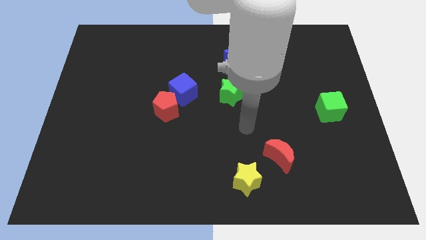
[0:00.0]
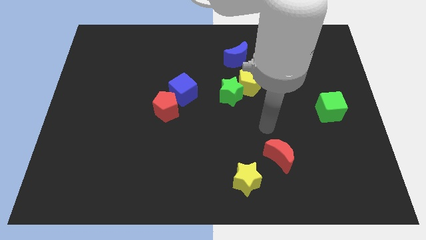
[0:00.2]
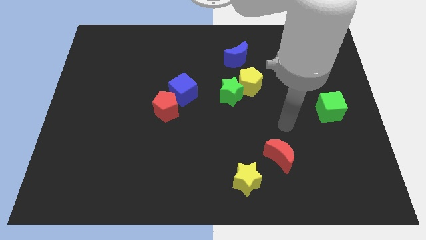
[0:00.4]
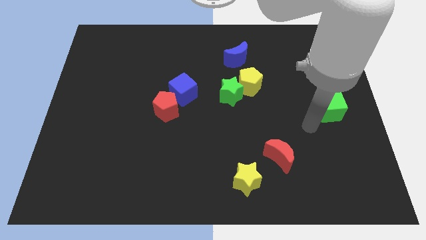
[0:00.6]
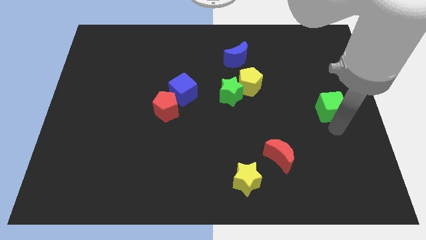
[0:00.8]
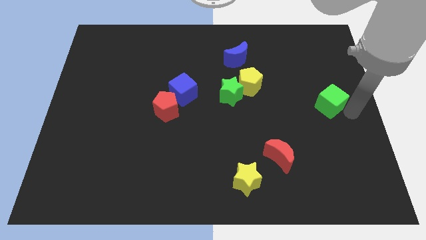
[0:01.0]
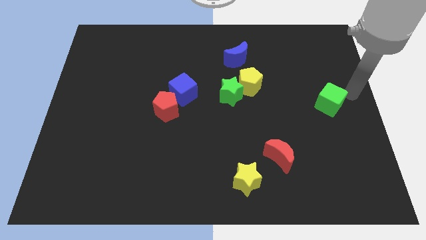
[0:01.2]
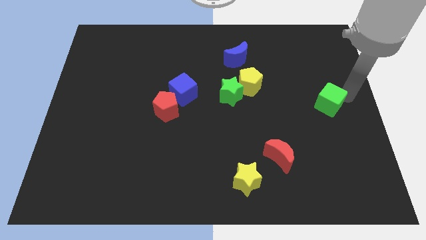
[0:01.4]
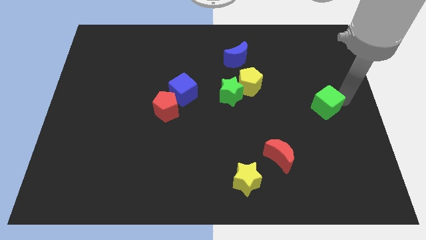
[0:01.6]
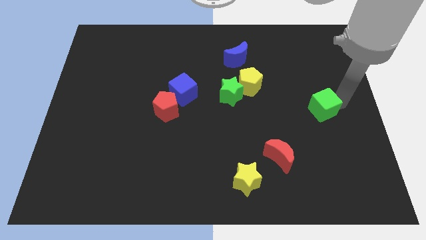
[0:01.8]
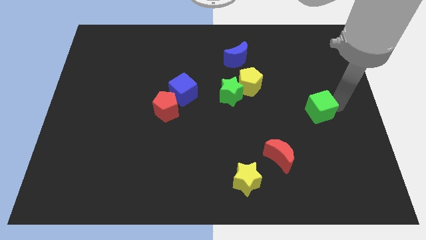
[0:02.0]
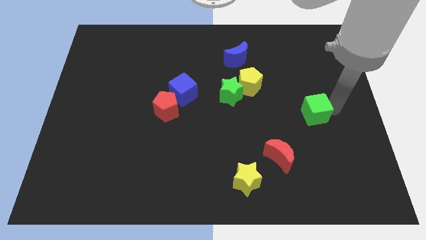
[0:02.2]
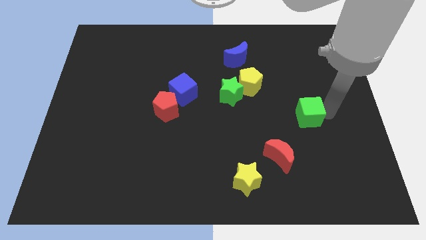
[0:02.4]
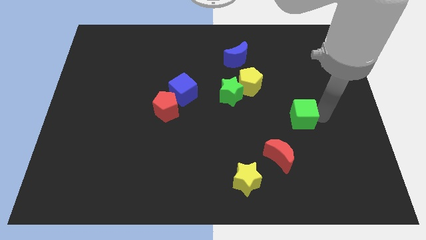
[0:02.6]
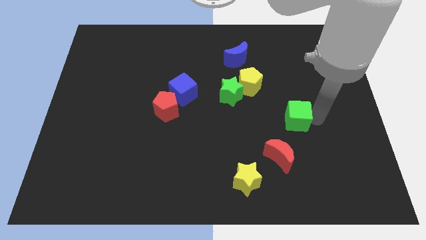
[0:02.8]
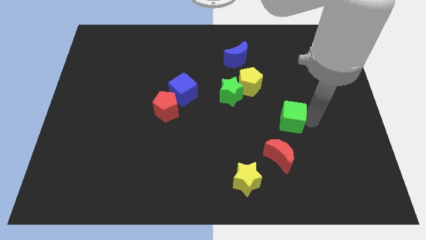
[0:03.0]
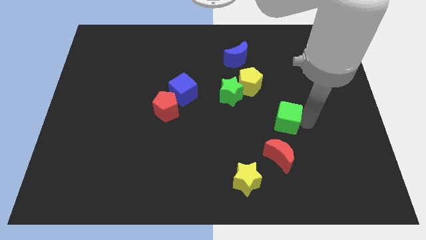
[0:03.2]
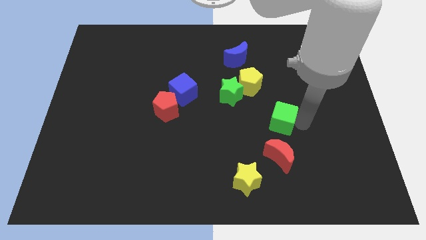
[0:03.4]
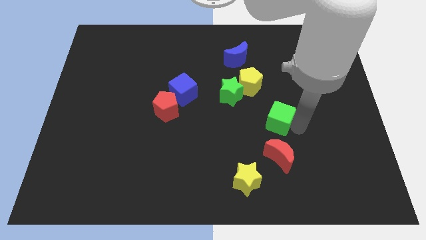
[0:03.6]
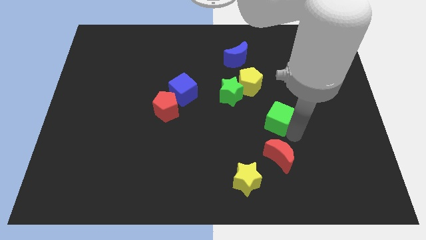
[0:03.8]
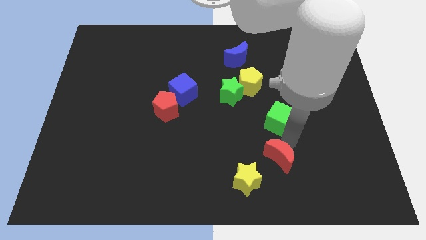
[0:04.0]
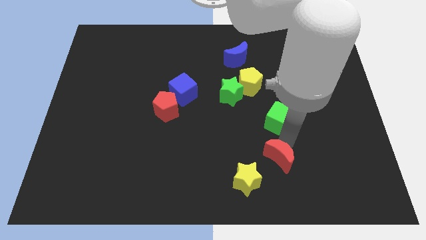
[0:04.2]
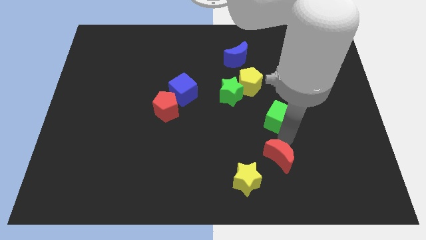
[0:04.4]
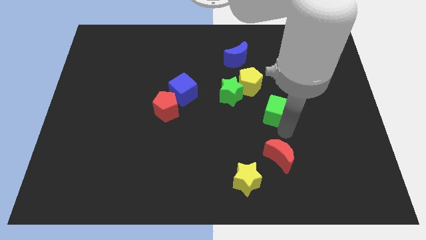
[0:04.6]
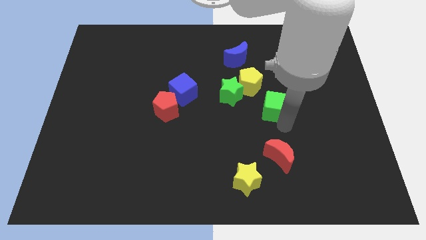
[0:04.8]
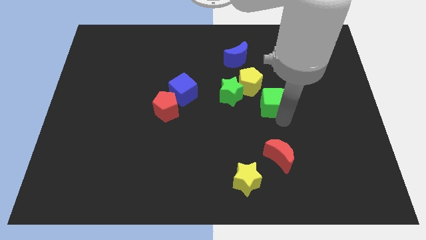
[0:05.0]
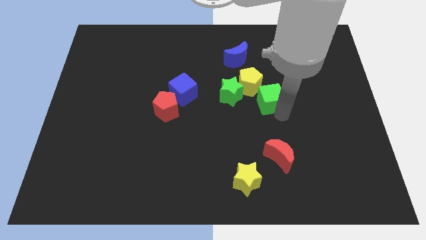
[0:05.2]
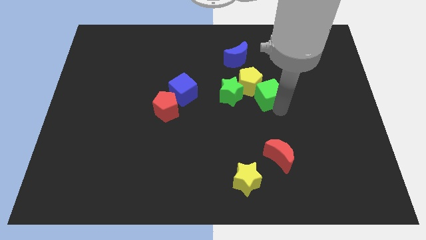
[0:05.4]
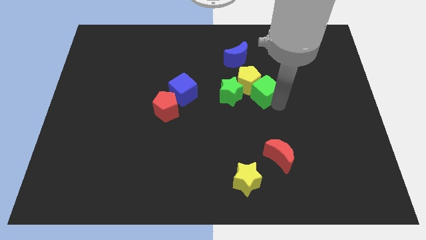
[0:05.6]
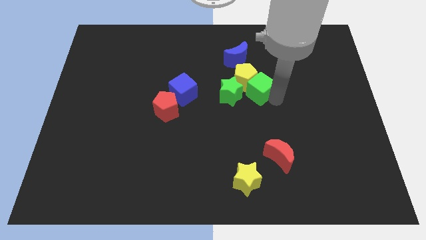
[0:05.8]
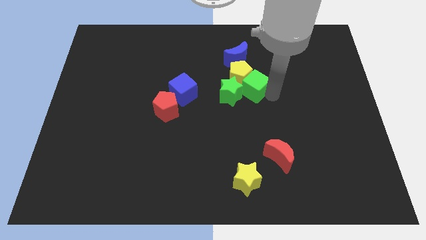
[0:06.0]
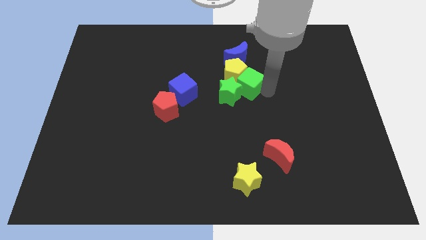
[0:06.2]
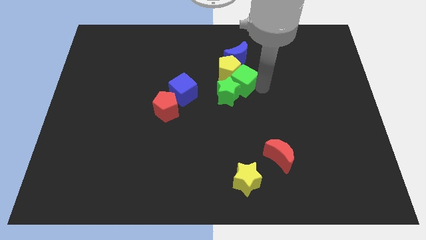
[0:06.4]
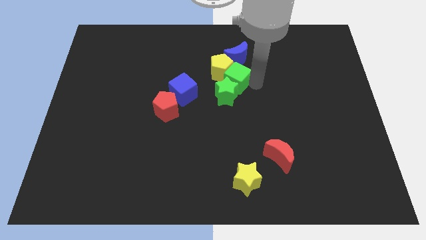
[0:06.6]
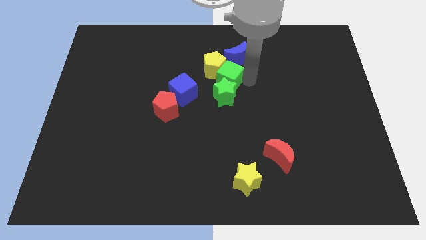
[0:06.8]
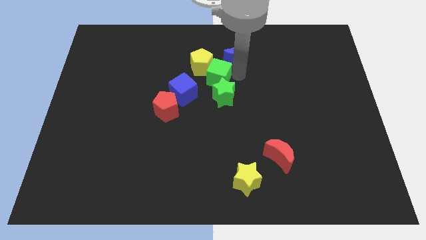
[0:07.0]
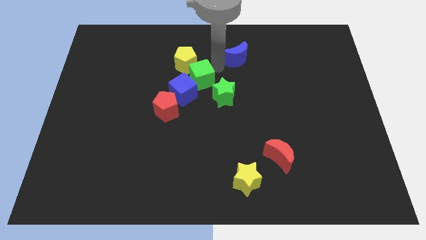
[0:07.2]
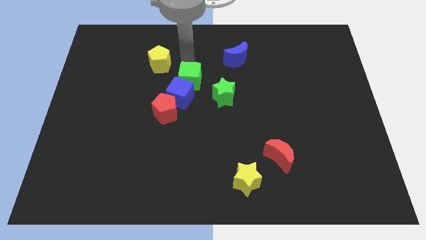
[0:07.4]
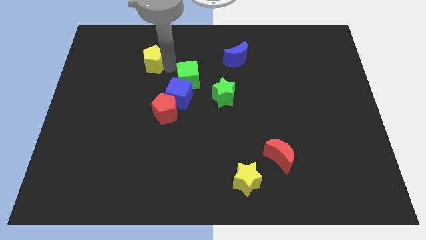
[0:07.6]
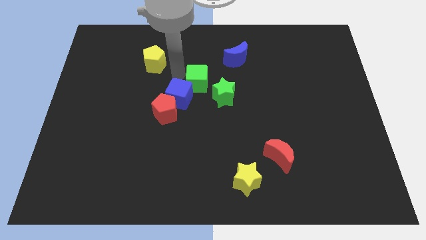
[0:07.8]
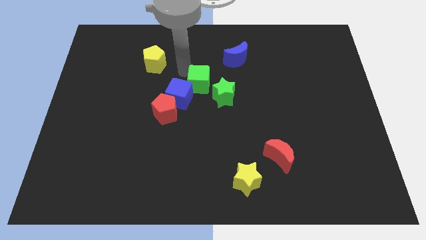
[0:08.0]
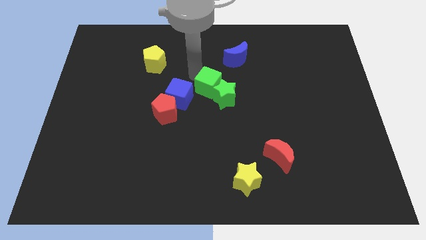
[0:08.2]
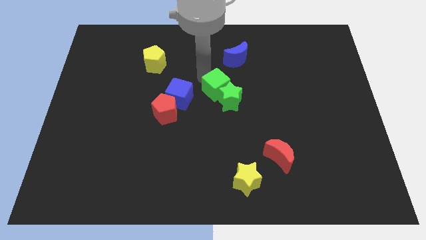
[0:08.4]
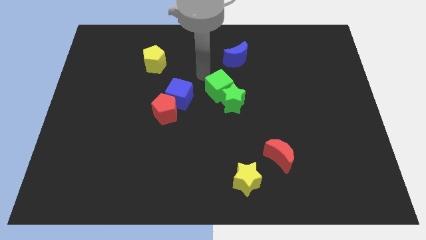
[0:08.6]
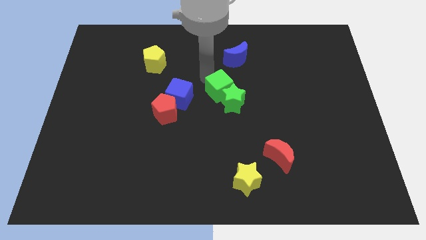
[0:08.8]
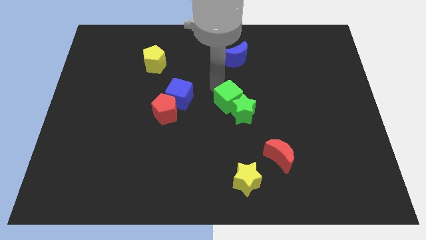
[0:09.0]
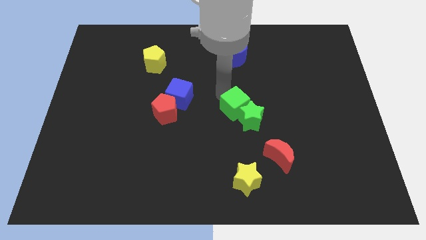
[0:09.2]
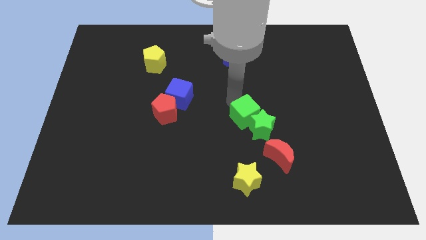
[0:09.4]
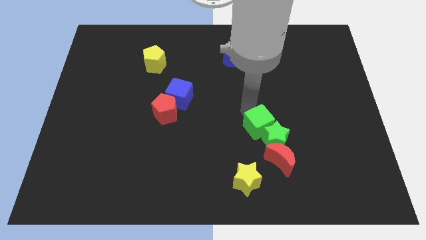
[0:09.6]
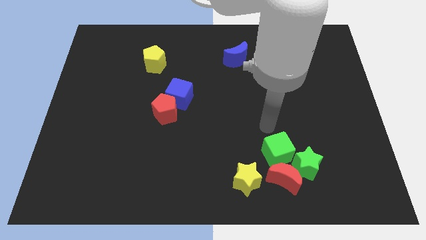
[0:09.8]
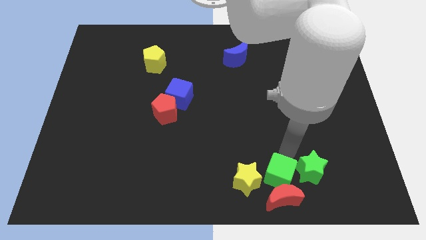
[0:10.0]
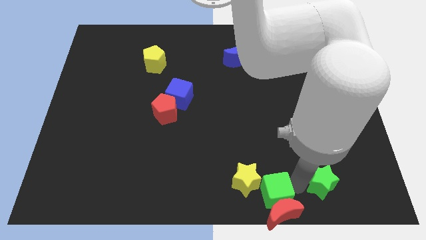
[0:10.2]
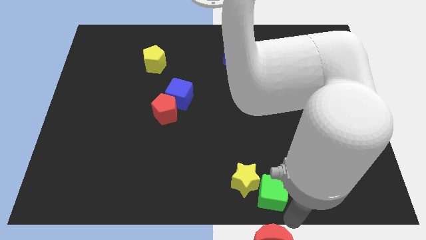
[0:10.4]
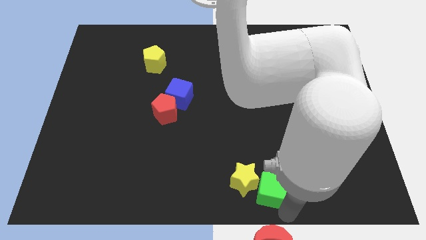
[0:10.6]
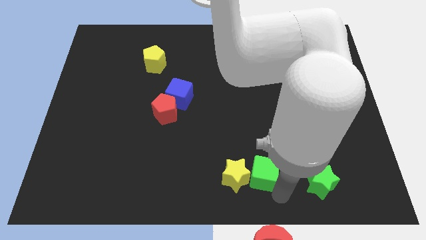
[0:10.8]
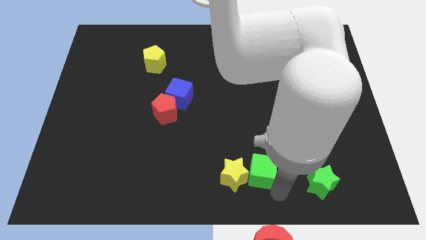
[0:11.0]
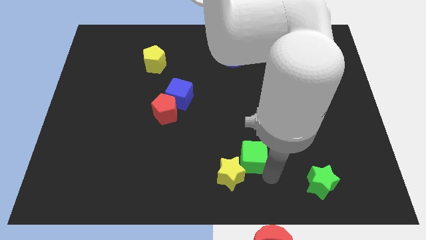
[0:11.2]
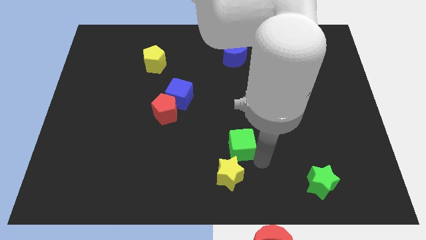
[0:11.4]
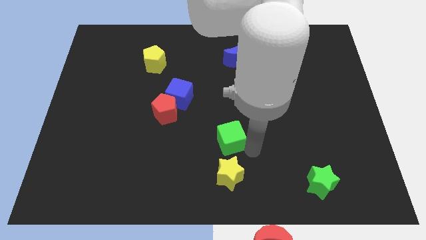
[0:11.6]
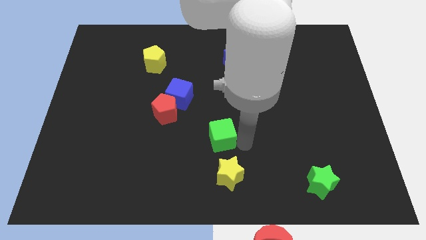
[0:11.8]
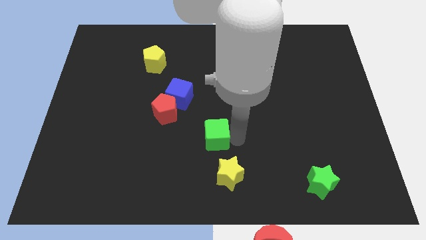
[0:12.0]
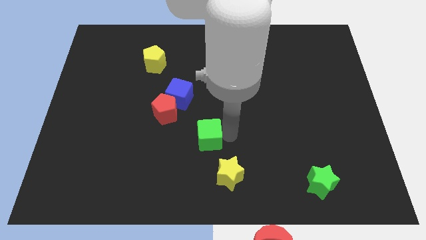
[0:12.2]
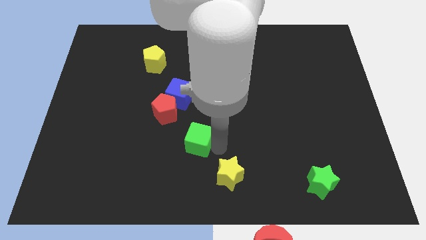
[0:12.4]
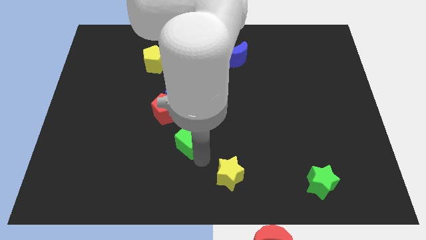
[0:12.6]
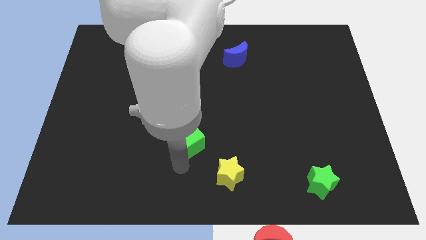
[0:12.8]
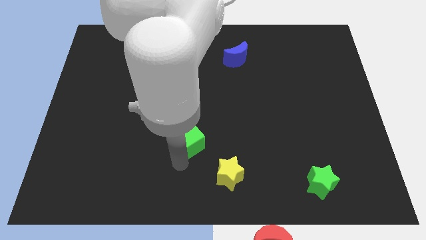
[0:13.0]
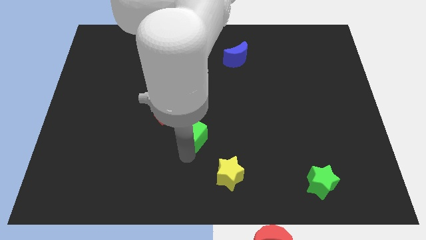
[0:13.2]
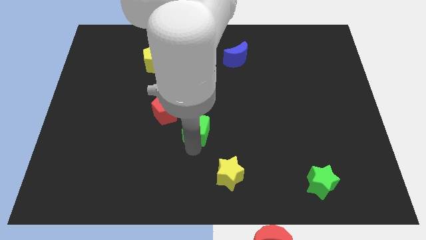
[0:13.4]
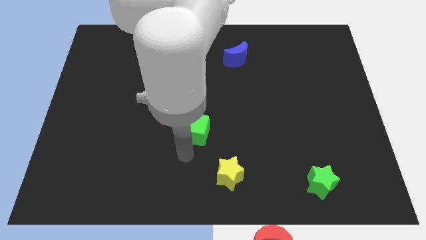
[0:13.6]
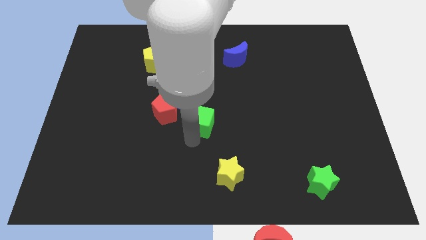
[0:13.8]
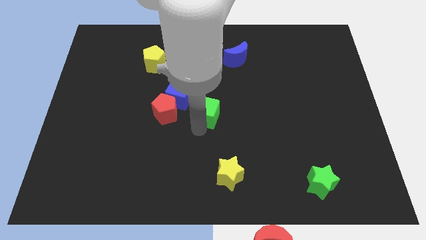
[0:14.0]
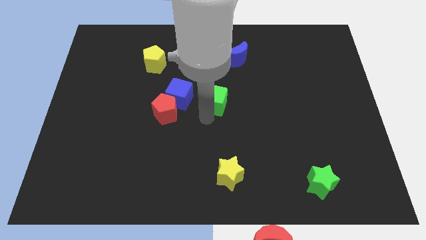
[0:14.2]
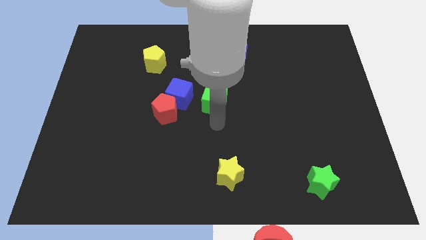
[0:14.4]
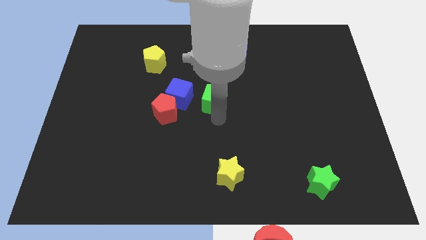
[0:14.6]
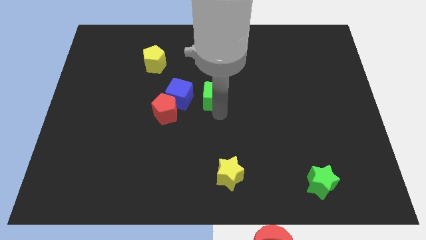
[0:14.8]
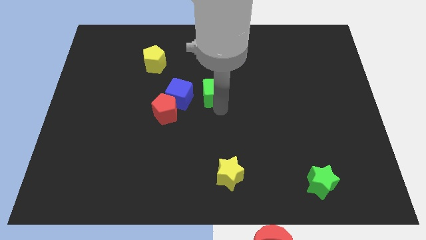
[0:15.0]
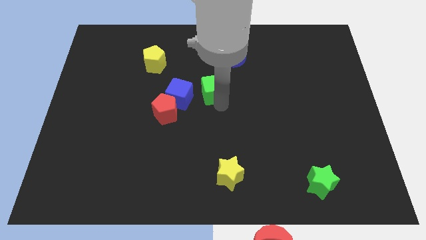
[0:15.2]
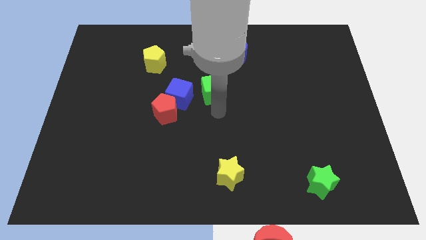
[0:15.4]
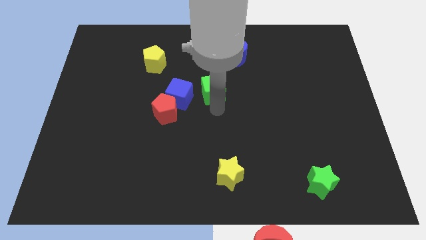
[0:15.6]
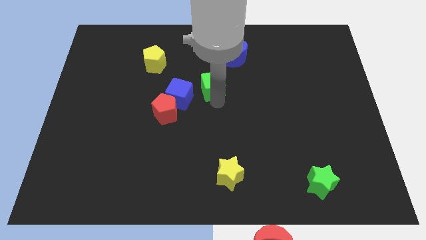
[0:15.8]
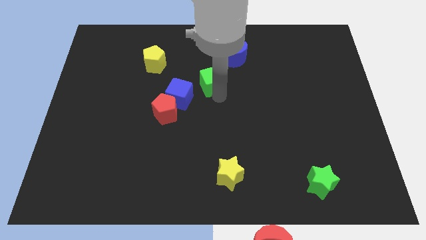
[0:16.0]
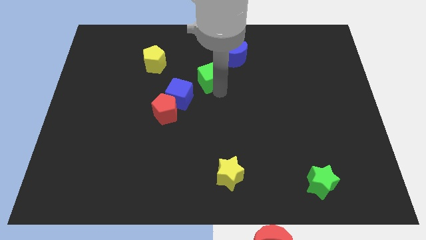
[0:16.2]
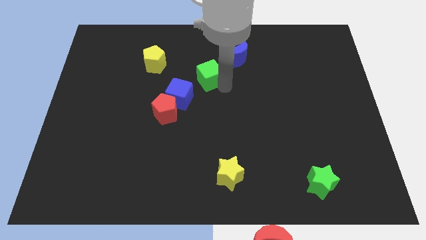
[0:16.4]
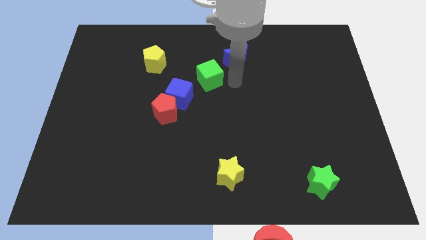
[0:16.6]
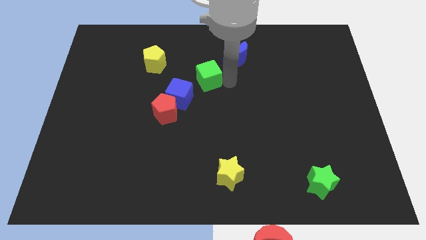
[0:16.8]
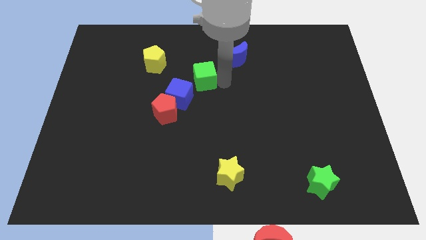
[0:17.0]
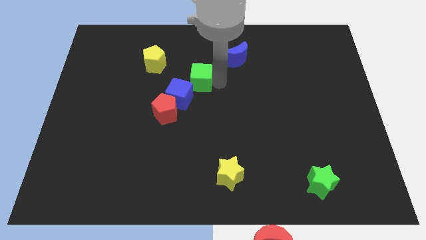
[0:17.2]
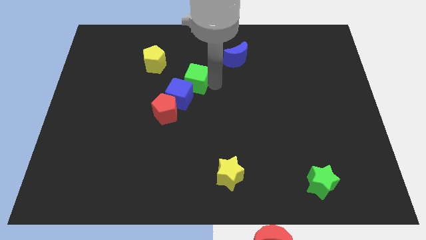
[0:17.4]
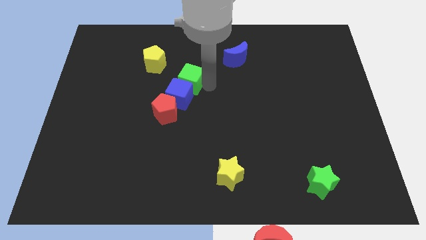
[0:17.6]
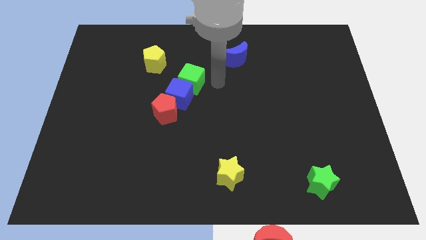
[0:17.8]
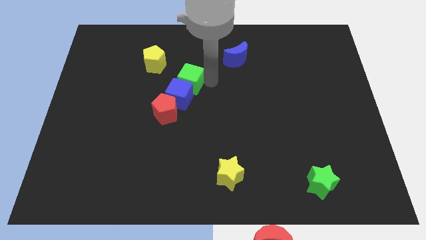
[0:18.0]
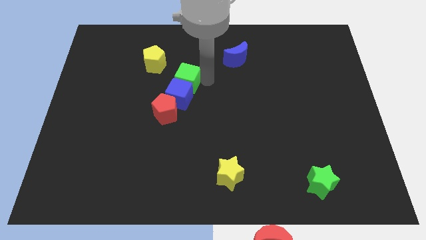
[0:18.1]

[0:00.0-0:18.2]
slide the green cube to the top left side of the blue cube
